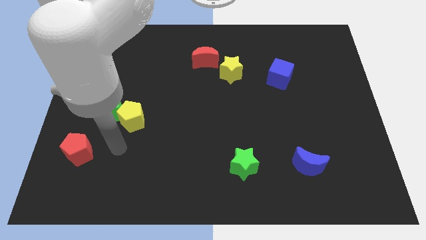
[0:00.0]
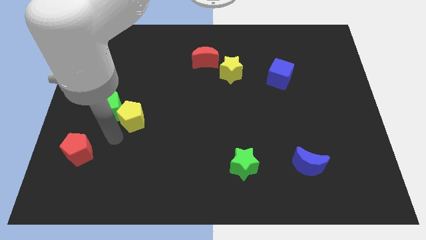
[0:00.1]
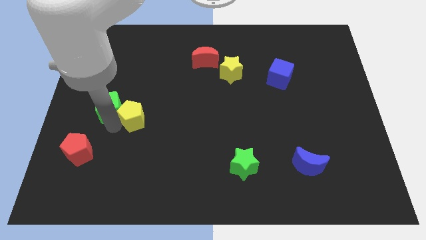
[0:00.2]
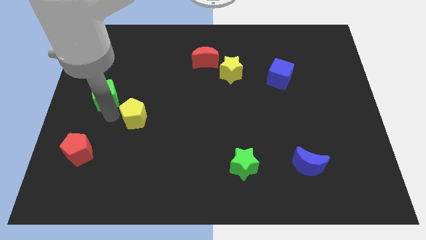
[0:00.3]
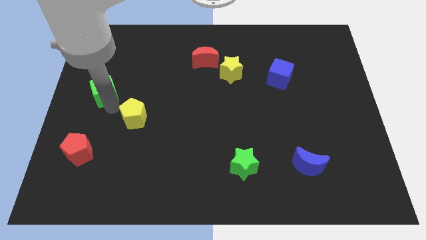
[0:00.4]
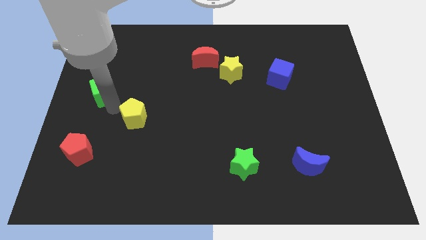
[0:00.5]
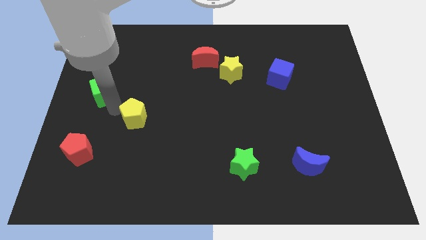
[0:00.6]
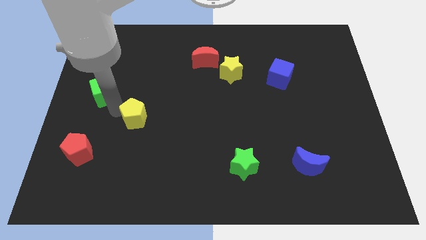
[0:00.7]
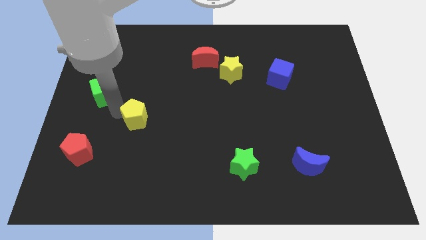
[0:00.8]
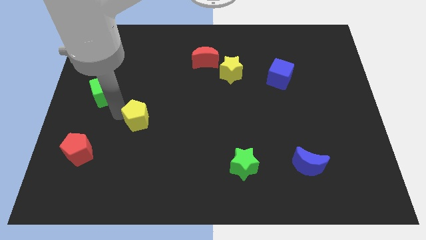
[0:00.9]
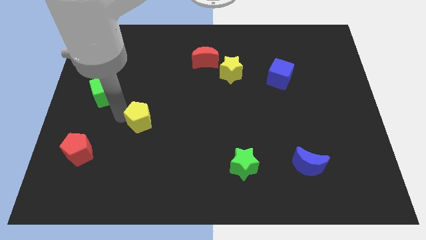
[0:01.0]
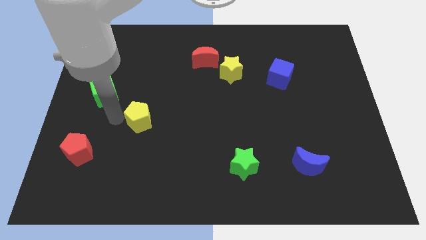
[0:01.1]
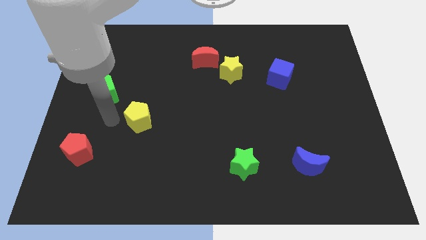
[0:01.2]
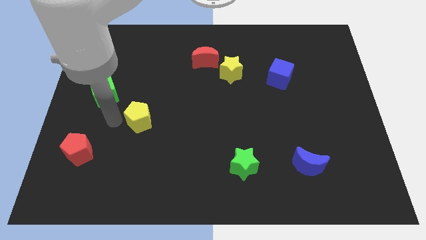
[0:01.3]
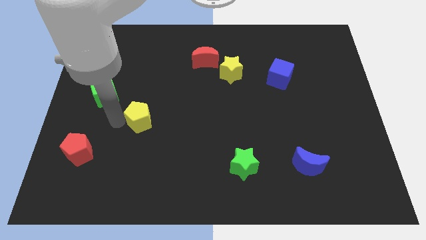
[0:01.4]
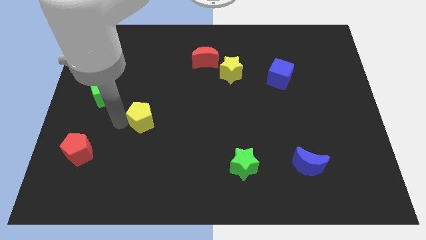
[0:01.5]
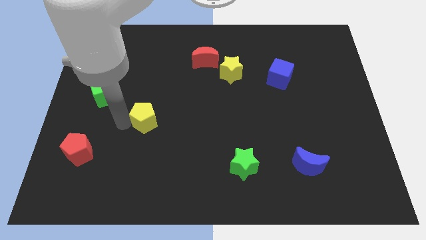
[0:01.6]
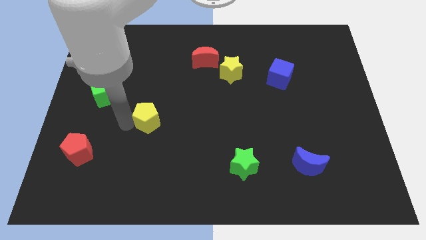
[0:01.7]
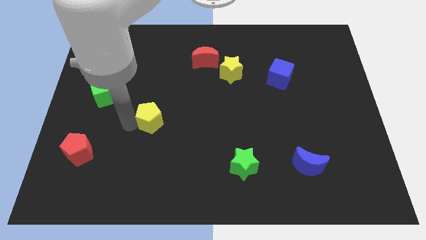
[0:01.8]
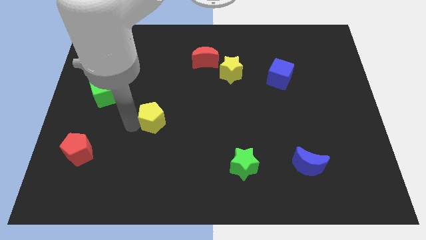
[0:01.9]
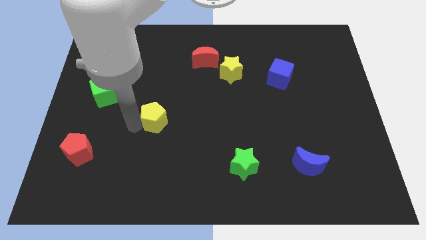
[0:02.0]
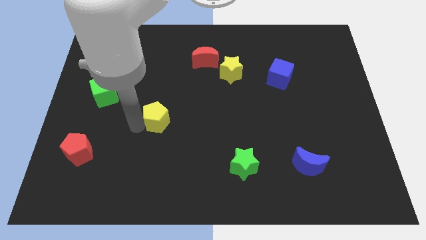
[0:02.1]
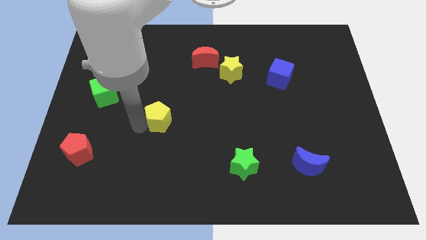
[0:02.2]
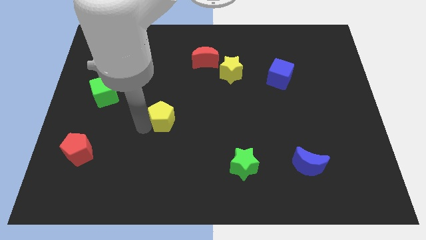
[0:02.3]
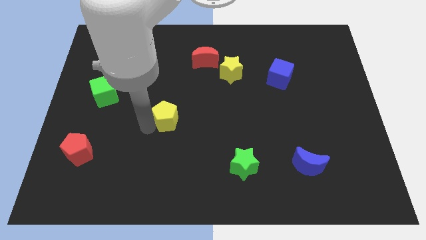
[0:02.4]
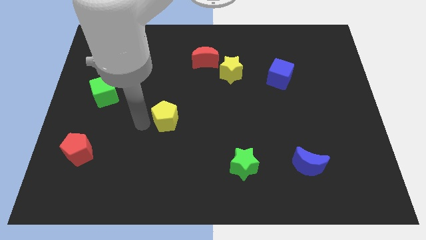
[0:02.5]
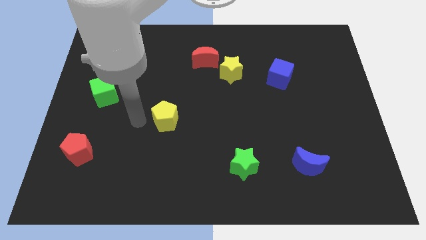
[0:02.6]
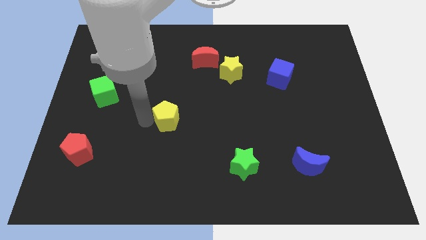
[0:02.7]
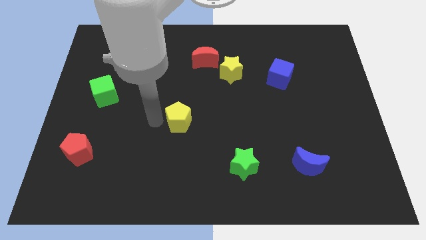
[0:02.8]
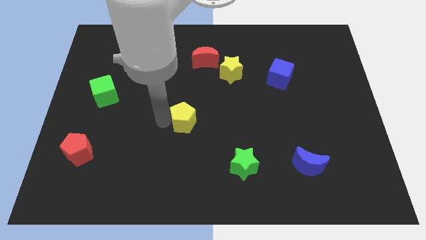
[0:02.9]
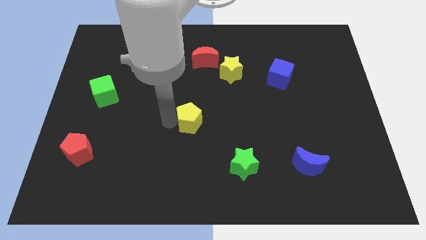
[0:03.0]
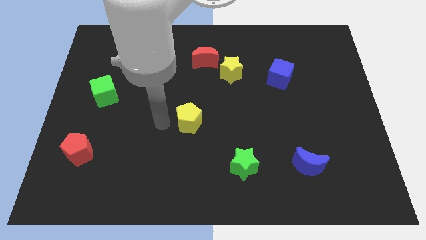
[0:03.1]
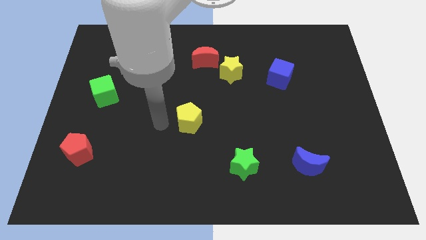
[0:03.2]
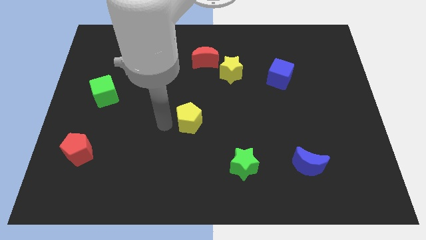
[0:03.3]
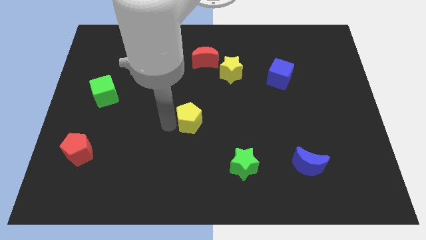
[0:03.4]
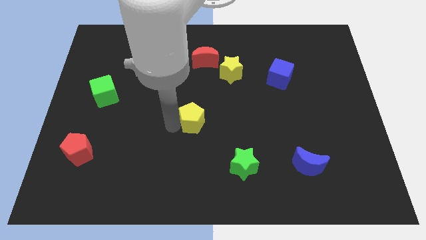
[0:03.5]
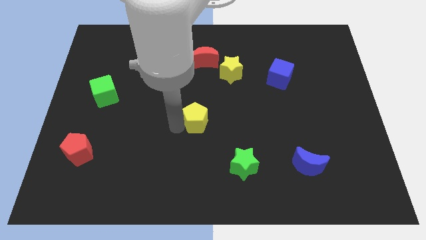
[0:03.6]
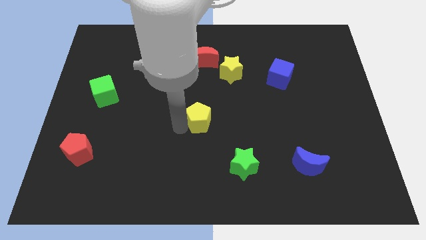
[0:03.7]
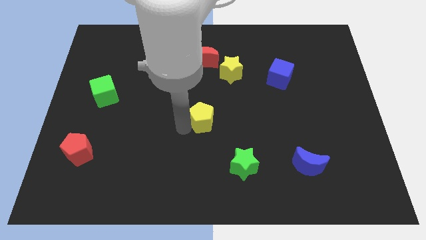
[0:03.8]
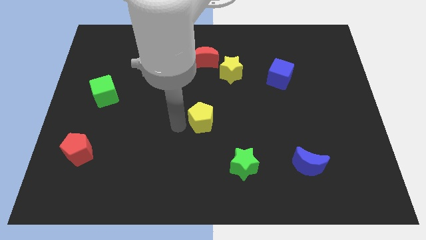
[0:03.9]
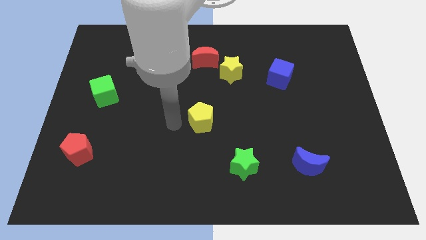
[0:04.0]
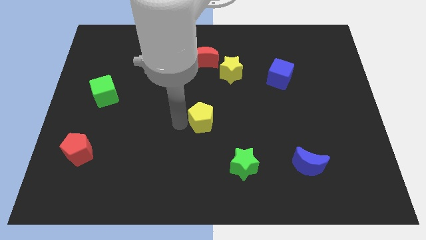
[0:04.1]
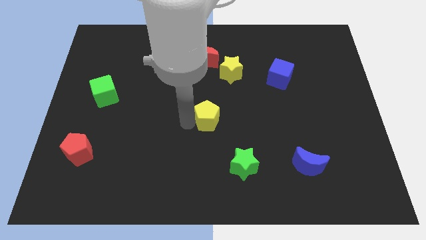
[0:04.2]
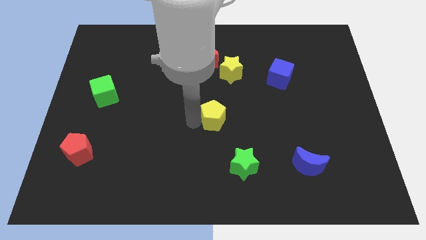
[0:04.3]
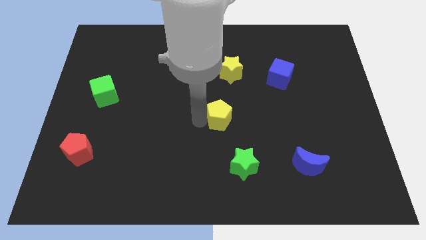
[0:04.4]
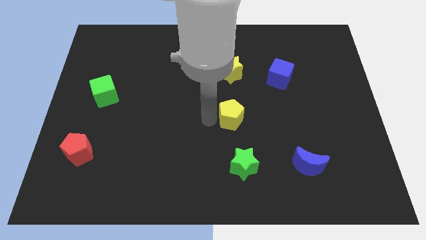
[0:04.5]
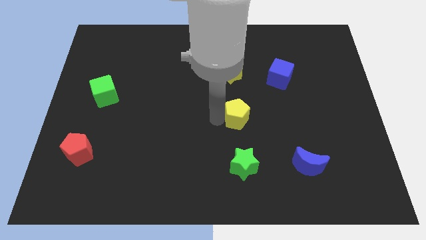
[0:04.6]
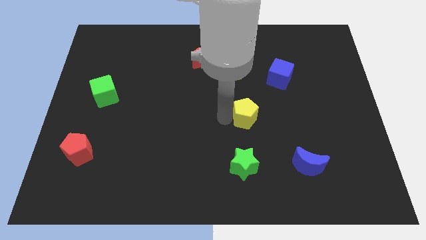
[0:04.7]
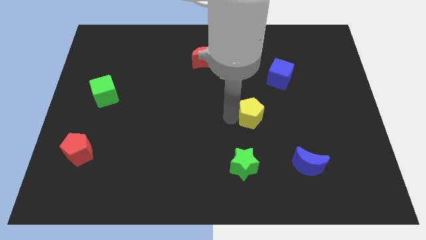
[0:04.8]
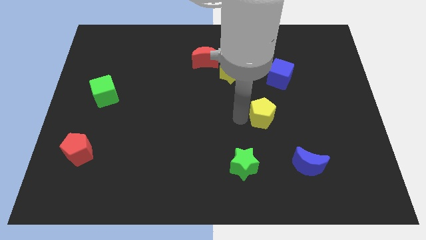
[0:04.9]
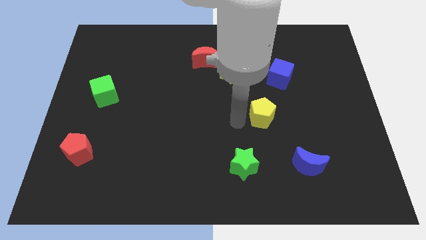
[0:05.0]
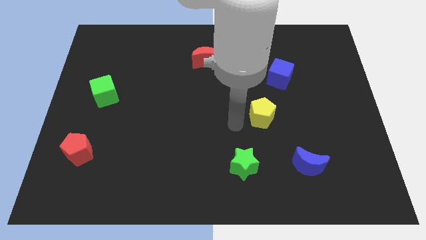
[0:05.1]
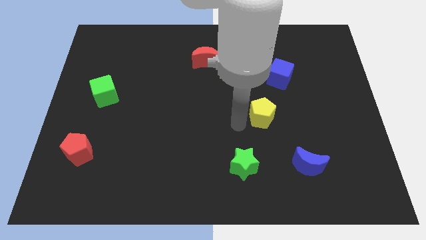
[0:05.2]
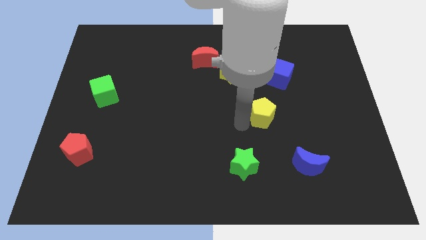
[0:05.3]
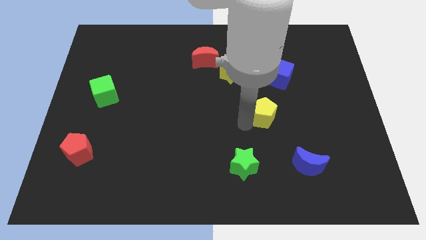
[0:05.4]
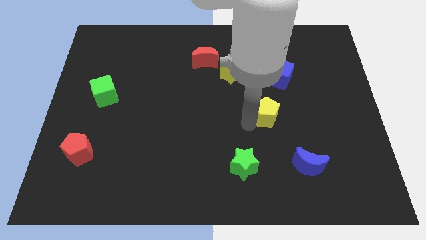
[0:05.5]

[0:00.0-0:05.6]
slide the yellow pentagon to the bottom side of the blue cube

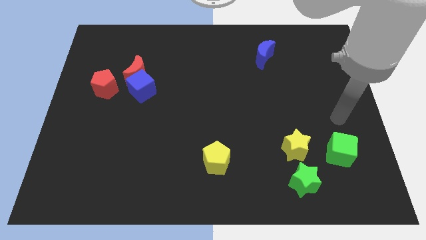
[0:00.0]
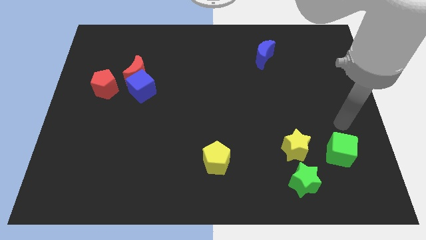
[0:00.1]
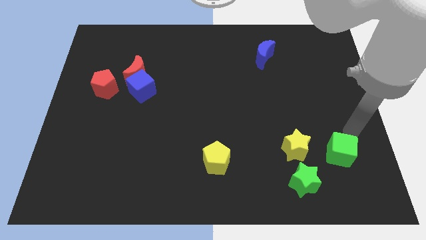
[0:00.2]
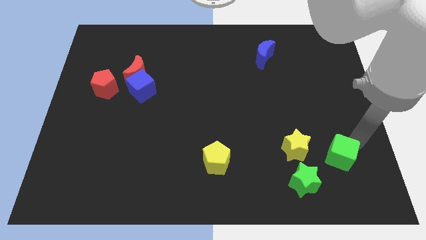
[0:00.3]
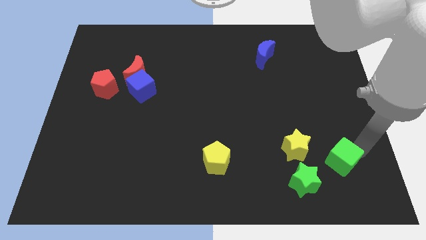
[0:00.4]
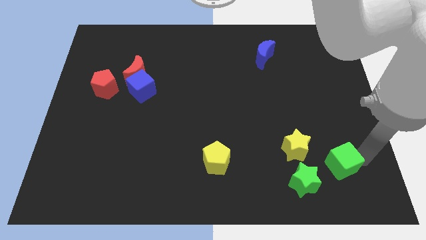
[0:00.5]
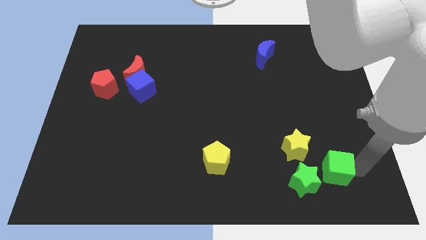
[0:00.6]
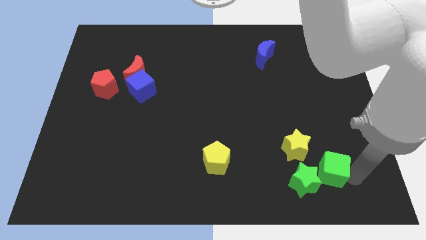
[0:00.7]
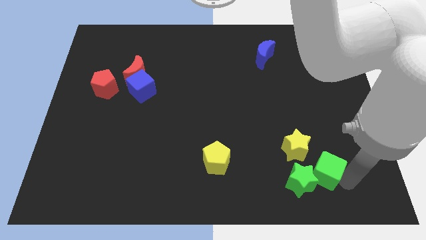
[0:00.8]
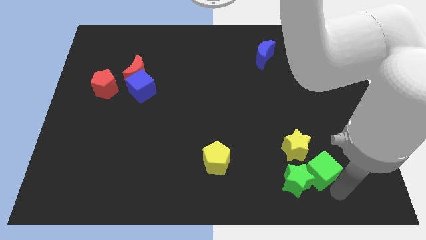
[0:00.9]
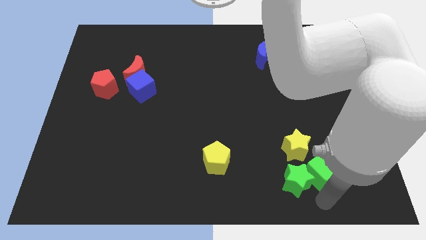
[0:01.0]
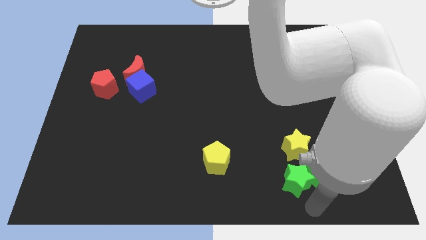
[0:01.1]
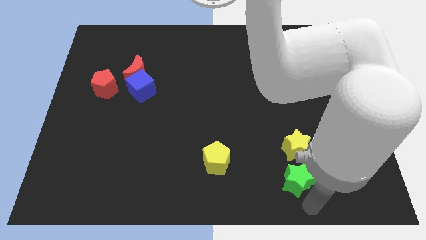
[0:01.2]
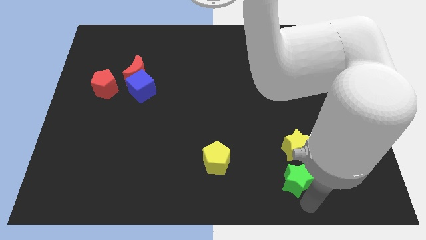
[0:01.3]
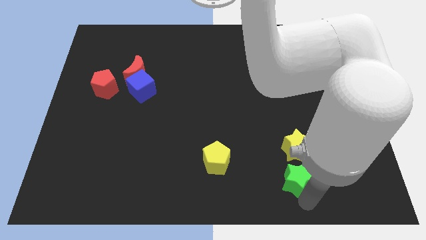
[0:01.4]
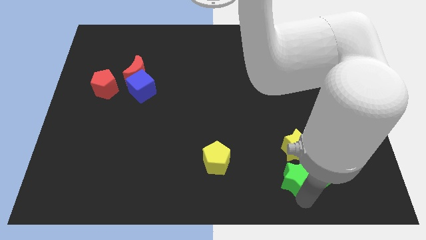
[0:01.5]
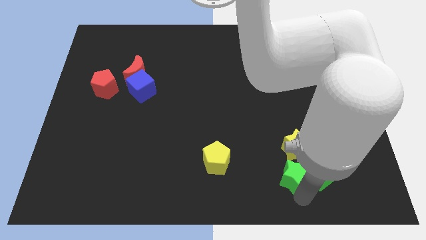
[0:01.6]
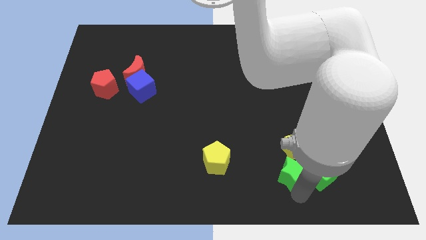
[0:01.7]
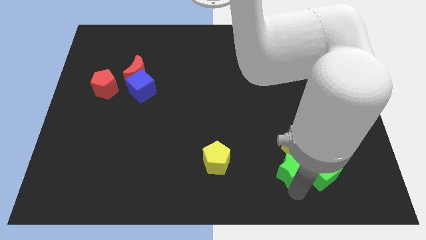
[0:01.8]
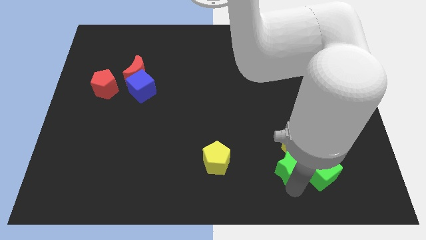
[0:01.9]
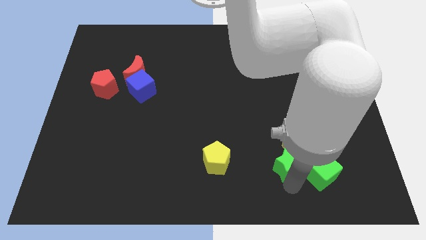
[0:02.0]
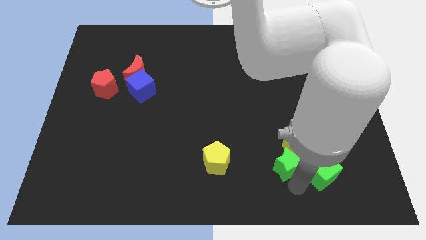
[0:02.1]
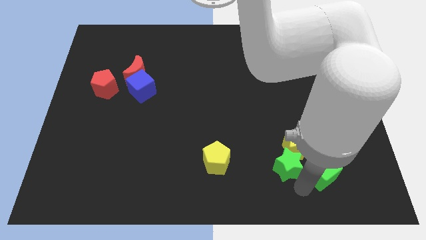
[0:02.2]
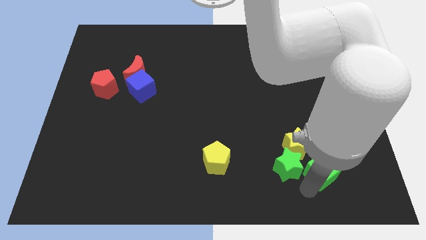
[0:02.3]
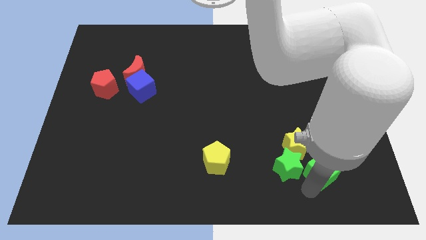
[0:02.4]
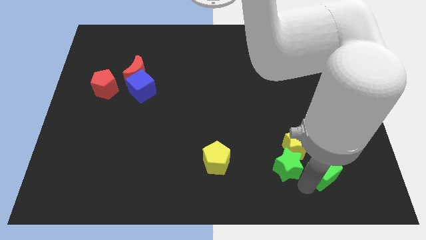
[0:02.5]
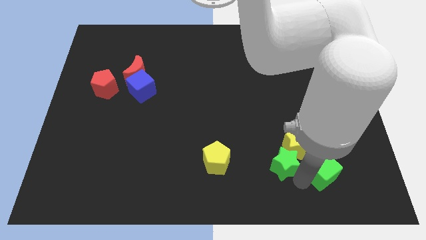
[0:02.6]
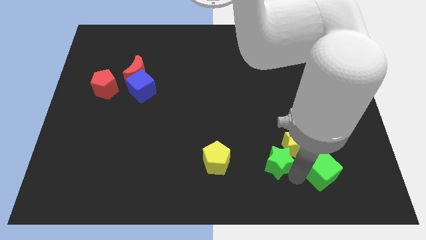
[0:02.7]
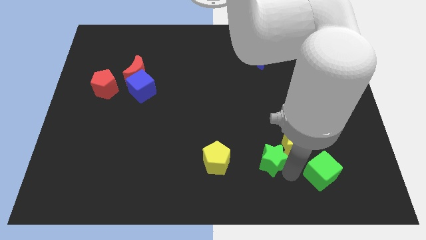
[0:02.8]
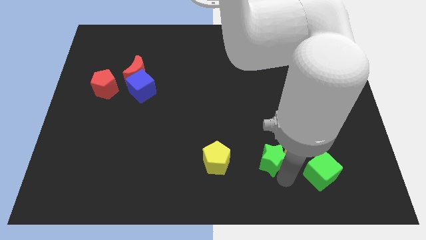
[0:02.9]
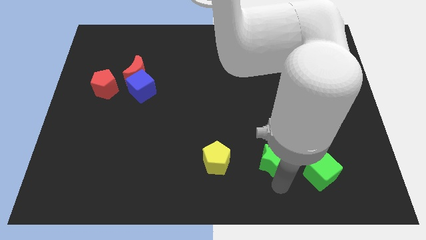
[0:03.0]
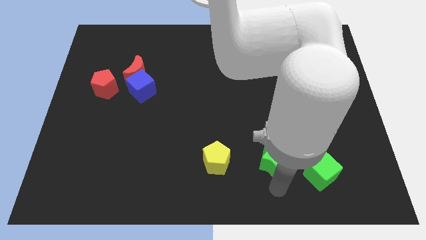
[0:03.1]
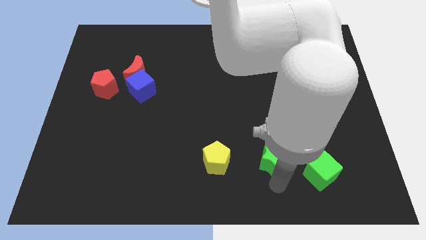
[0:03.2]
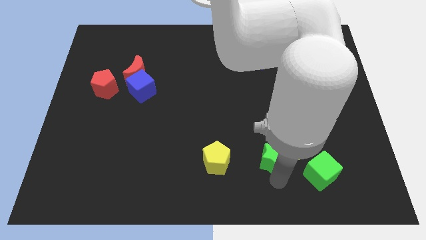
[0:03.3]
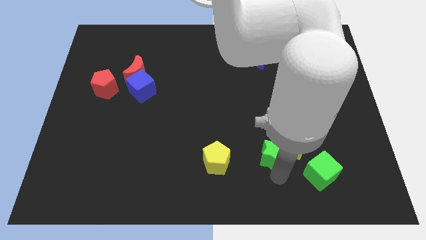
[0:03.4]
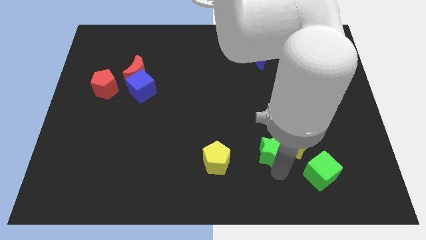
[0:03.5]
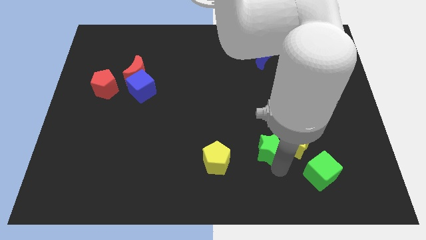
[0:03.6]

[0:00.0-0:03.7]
slide the green star to the top left of the yellow star
